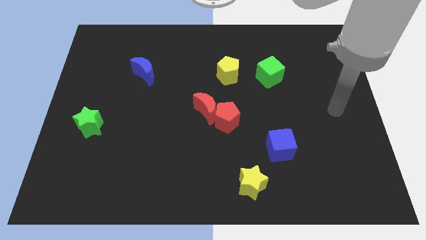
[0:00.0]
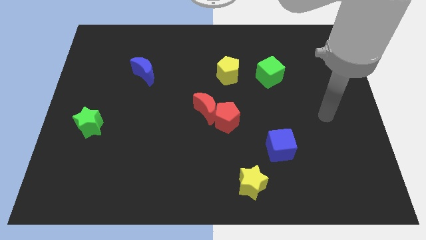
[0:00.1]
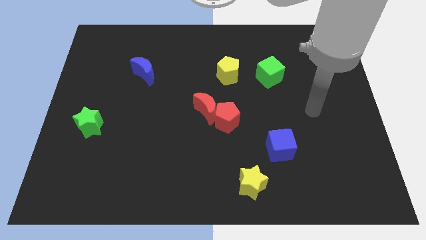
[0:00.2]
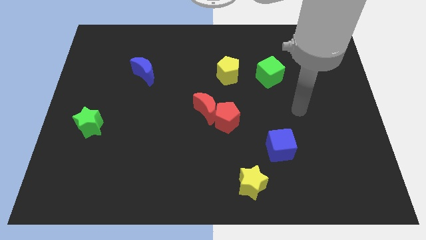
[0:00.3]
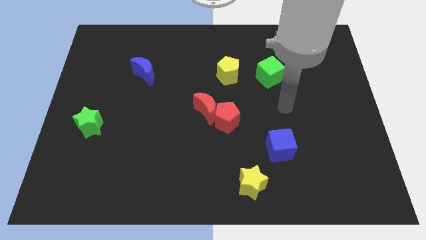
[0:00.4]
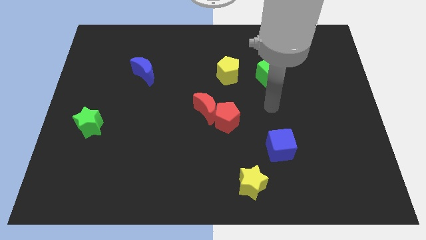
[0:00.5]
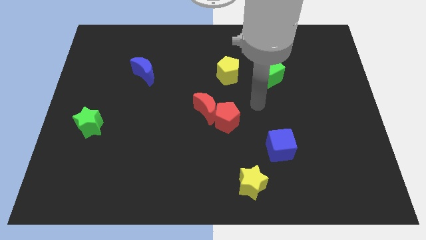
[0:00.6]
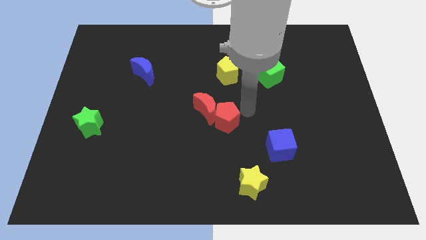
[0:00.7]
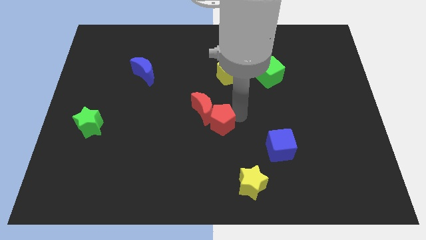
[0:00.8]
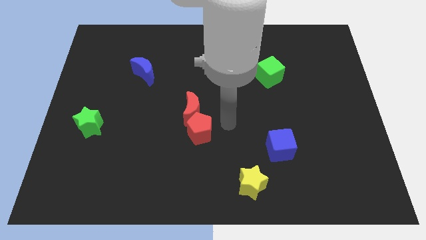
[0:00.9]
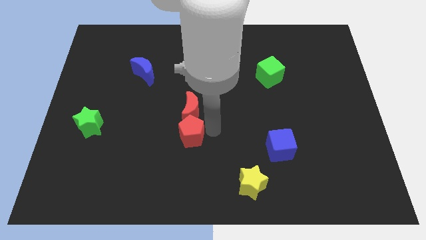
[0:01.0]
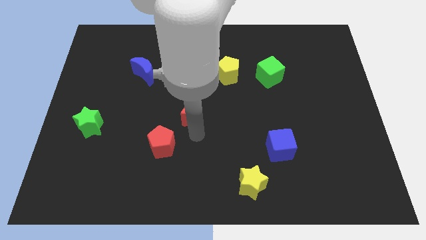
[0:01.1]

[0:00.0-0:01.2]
pull the red moon apart from the red pentagon

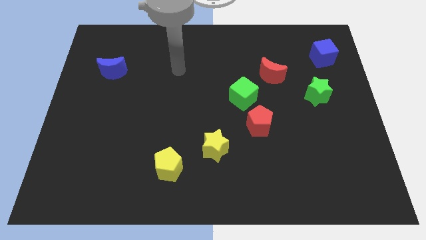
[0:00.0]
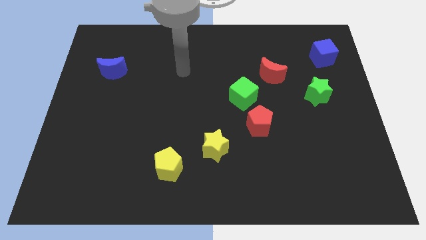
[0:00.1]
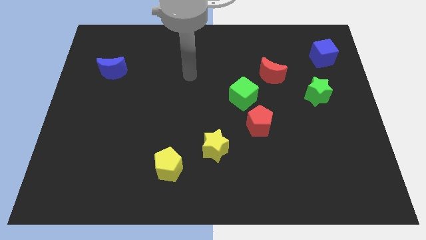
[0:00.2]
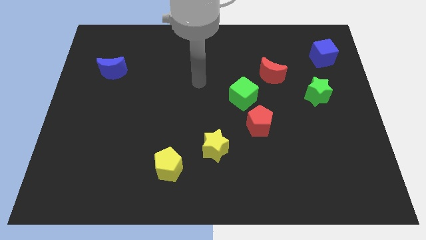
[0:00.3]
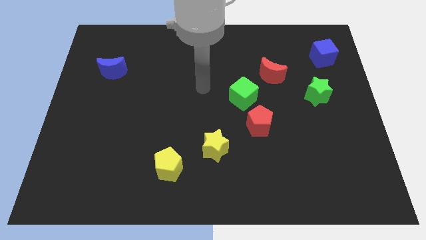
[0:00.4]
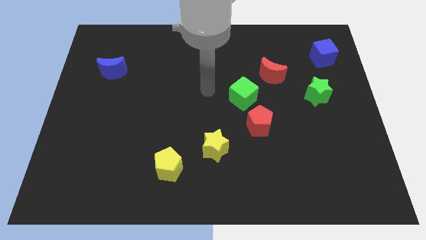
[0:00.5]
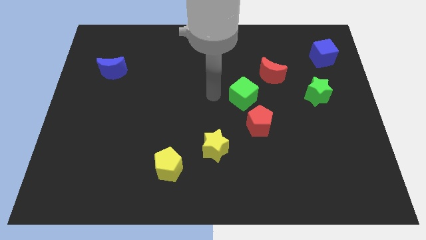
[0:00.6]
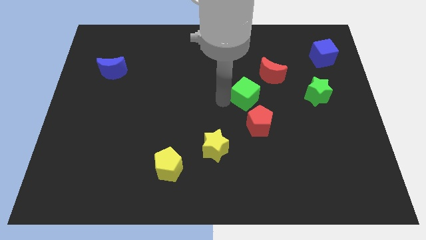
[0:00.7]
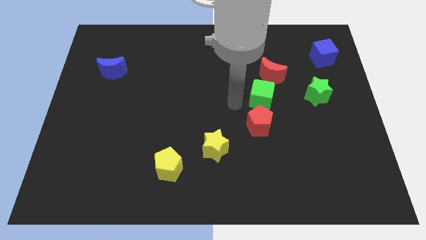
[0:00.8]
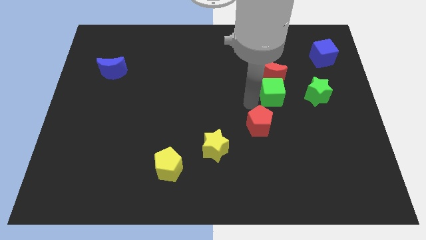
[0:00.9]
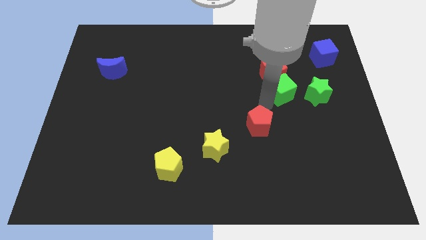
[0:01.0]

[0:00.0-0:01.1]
separate the red pentagon from the green cube

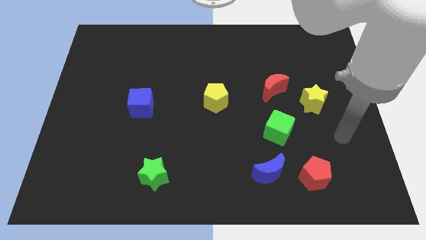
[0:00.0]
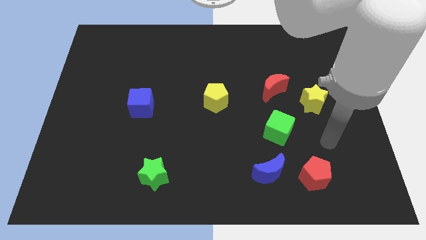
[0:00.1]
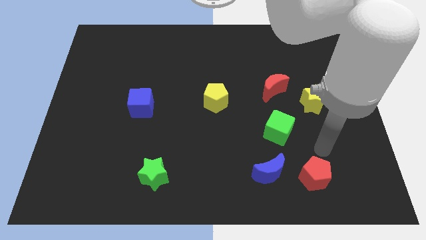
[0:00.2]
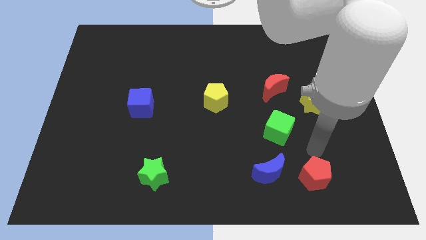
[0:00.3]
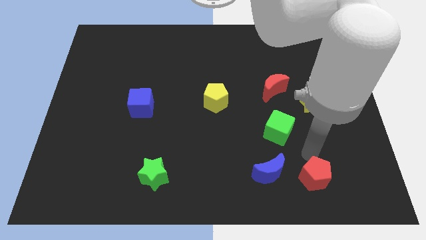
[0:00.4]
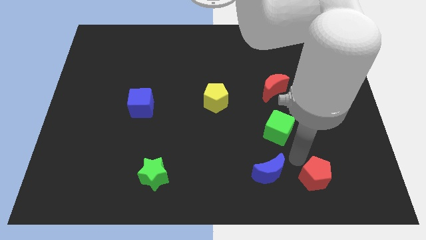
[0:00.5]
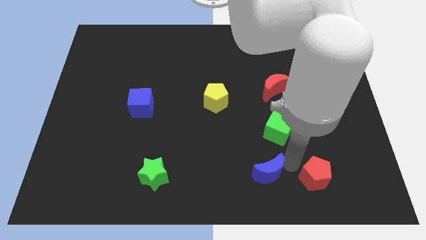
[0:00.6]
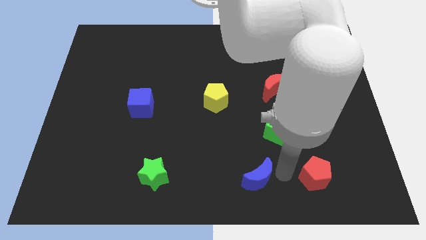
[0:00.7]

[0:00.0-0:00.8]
separate the red pentagon from the blue moon

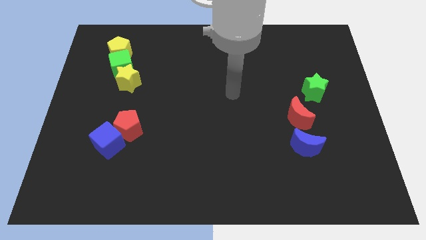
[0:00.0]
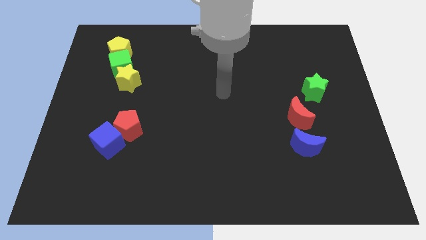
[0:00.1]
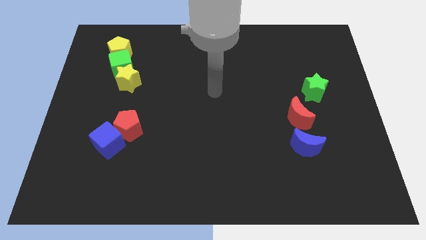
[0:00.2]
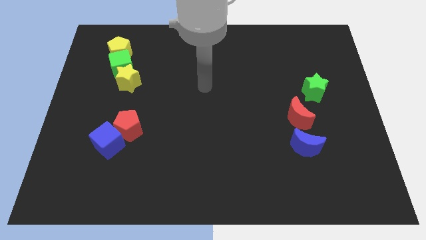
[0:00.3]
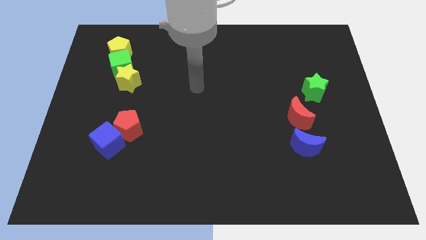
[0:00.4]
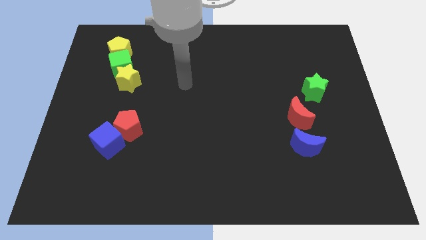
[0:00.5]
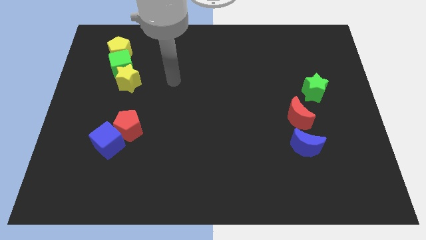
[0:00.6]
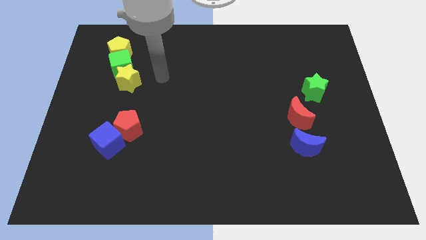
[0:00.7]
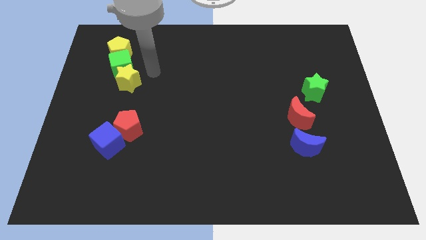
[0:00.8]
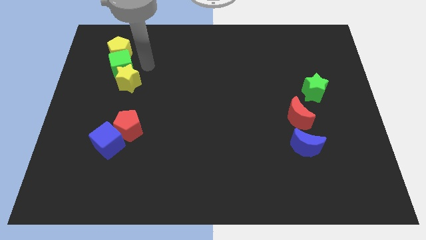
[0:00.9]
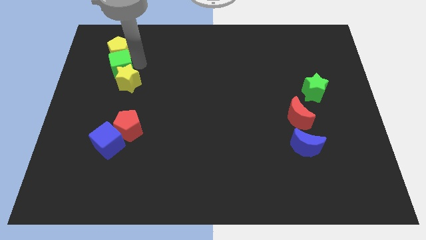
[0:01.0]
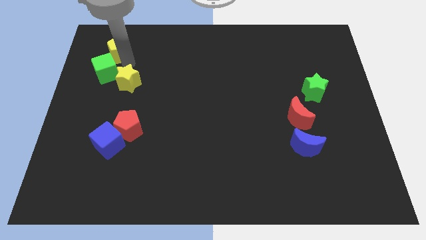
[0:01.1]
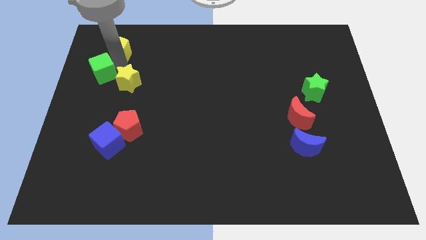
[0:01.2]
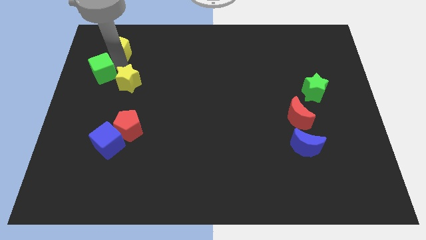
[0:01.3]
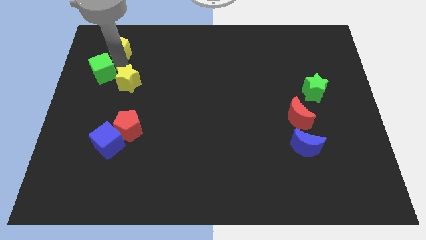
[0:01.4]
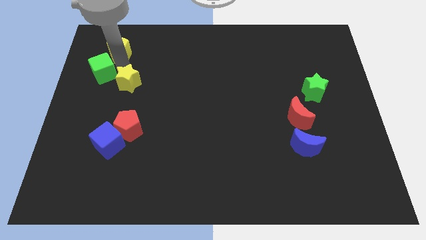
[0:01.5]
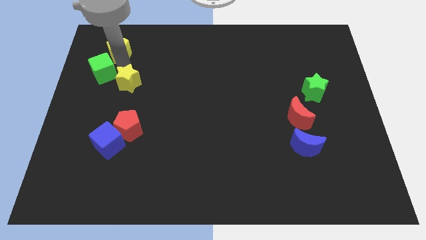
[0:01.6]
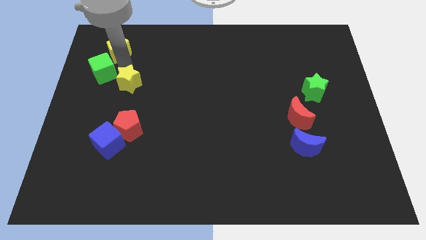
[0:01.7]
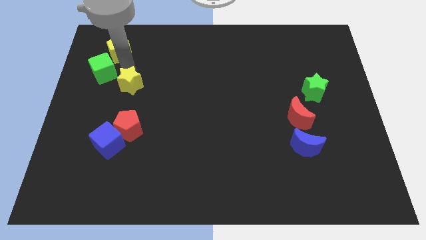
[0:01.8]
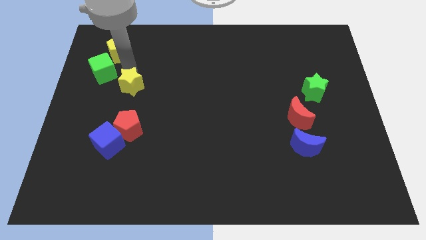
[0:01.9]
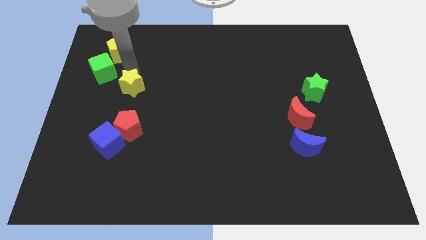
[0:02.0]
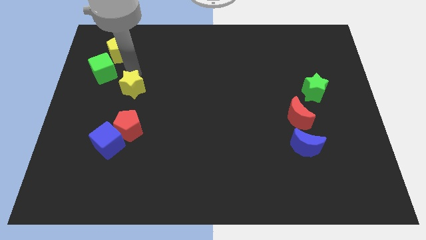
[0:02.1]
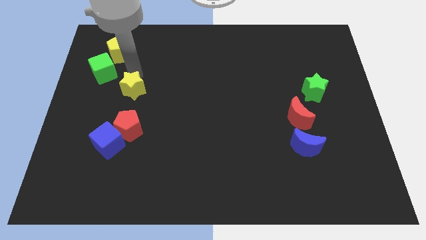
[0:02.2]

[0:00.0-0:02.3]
pull the yellow star apart from the green cube

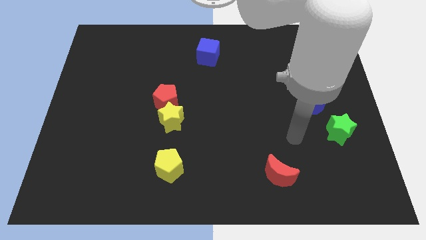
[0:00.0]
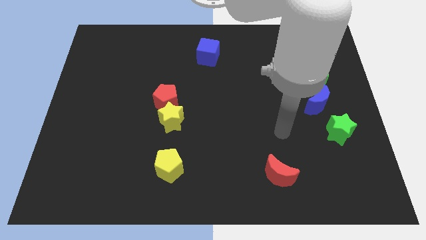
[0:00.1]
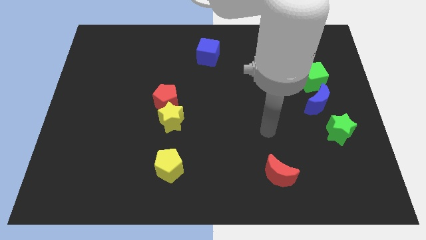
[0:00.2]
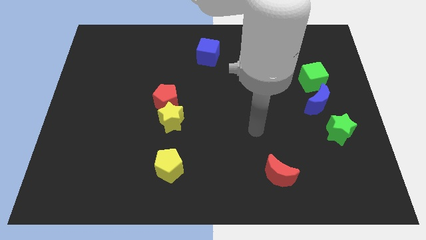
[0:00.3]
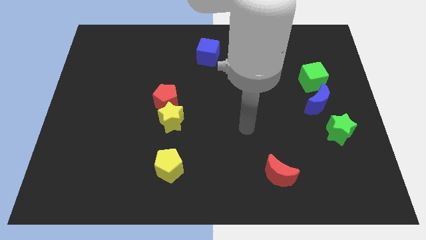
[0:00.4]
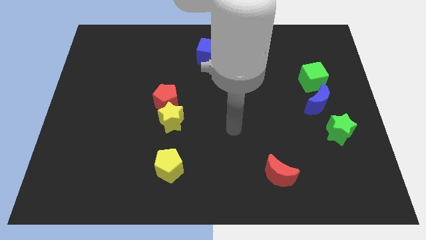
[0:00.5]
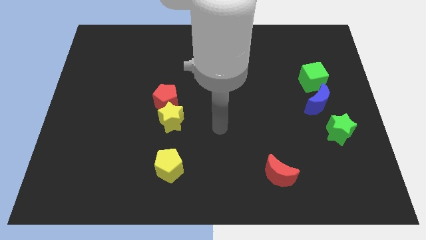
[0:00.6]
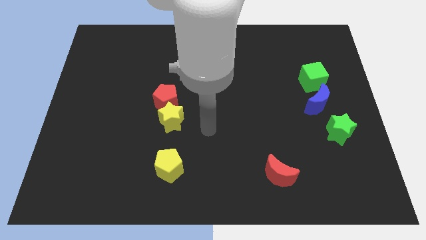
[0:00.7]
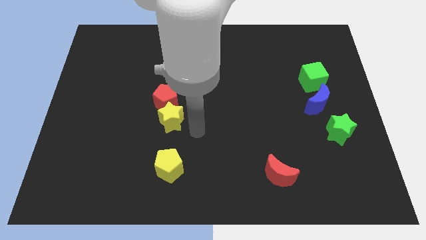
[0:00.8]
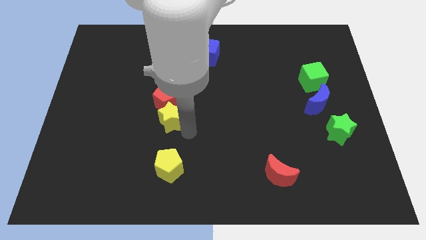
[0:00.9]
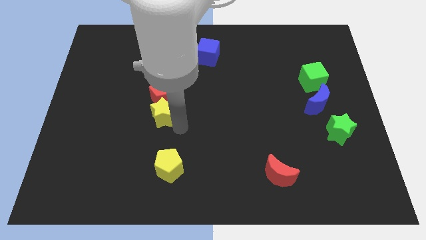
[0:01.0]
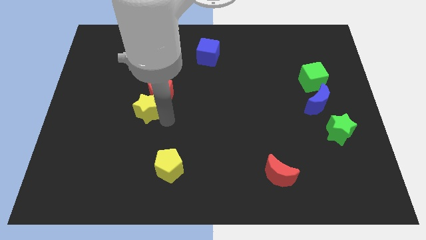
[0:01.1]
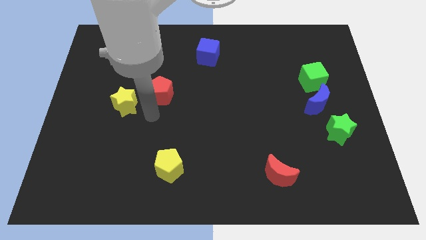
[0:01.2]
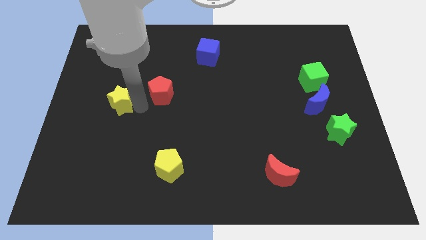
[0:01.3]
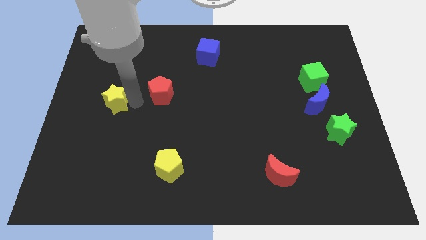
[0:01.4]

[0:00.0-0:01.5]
separate the red pentagon from the yellow star

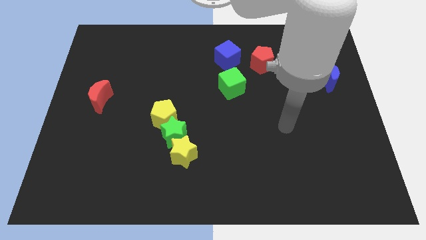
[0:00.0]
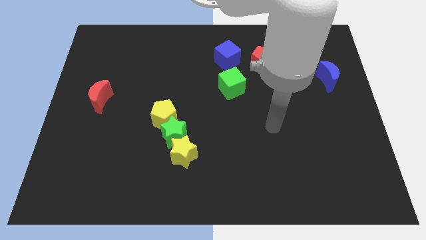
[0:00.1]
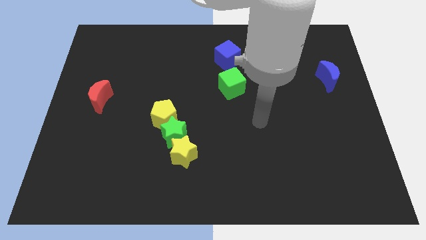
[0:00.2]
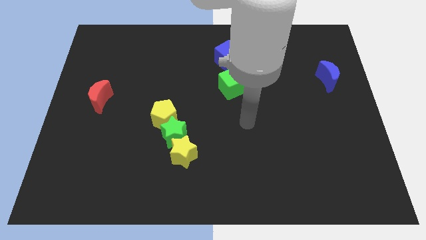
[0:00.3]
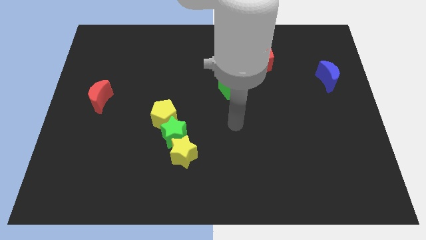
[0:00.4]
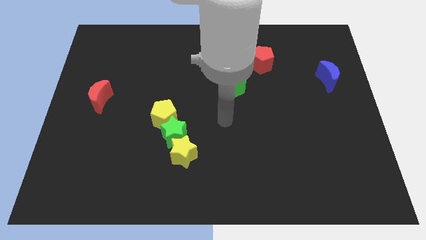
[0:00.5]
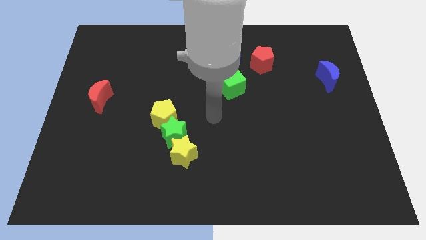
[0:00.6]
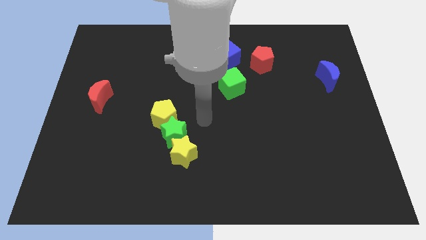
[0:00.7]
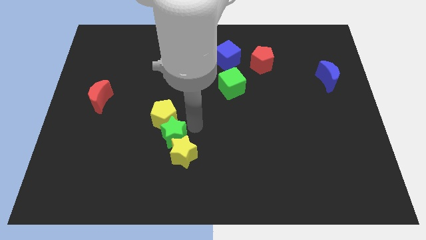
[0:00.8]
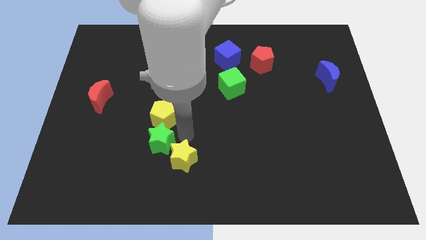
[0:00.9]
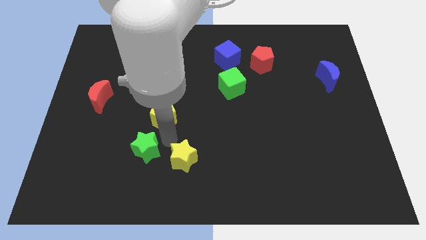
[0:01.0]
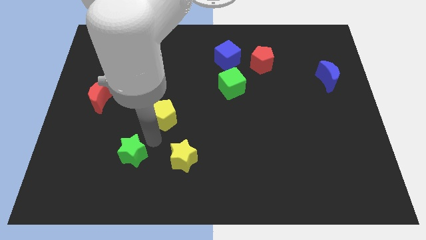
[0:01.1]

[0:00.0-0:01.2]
pull the yellow pentagon apart from the green star

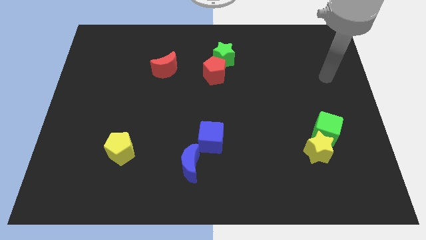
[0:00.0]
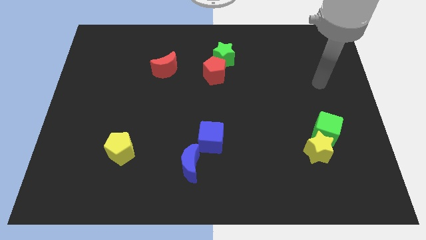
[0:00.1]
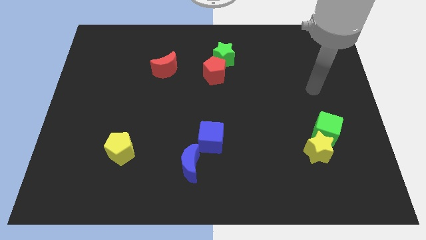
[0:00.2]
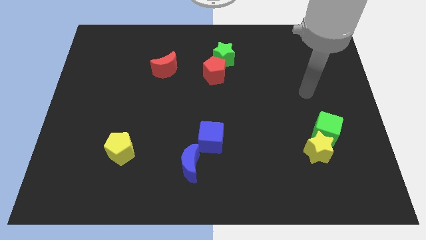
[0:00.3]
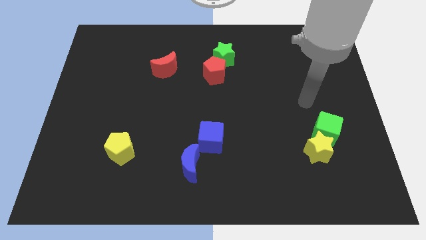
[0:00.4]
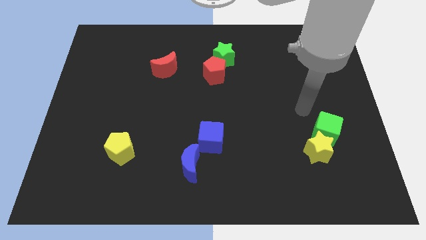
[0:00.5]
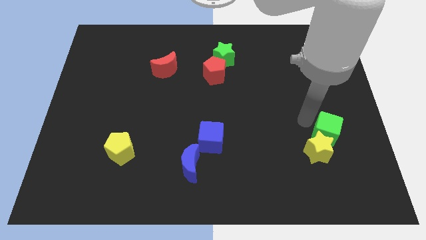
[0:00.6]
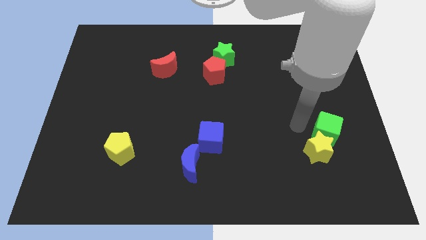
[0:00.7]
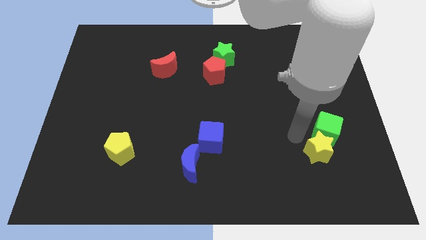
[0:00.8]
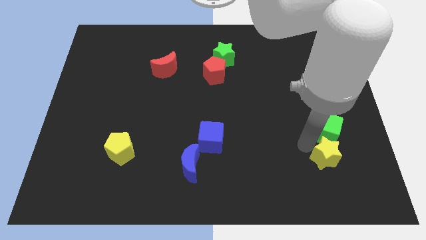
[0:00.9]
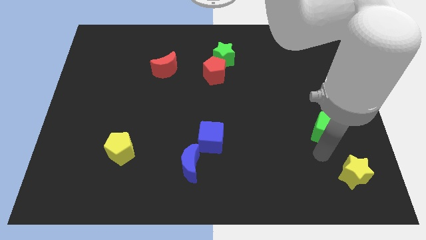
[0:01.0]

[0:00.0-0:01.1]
separate the green cube from the yellow star
